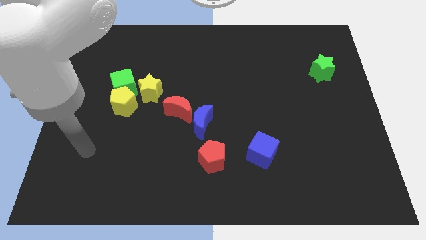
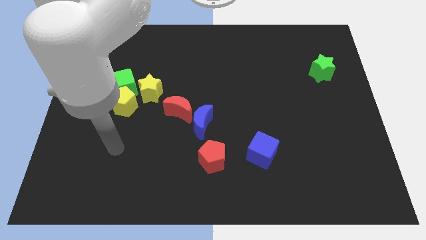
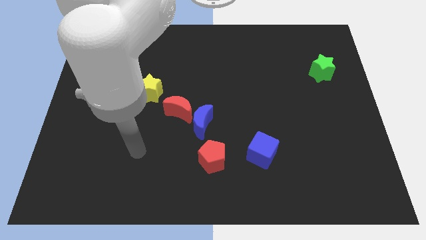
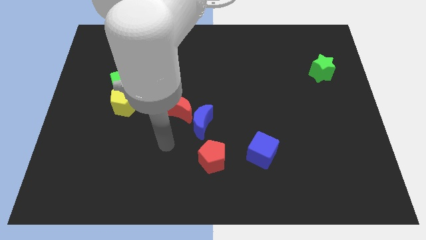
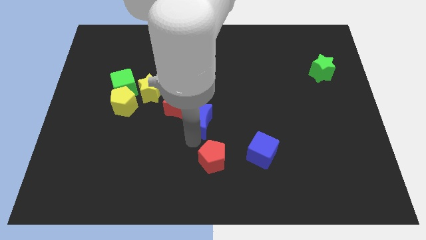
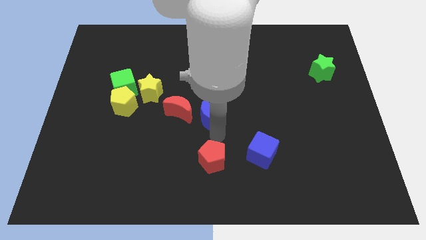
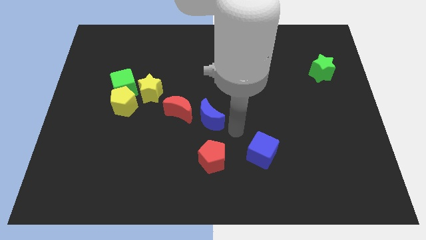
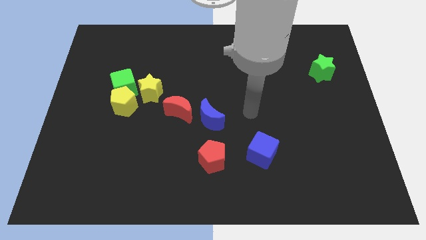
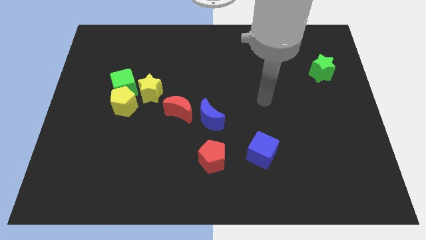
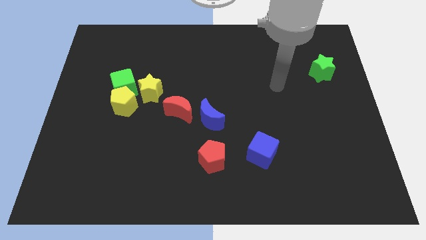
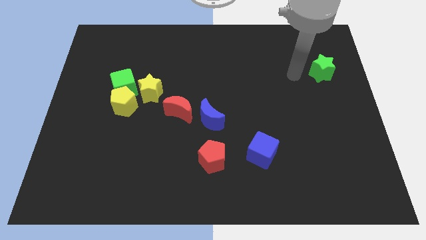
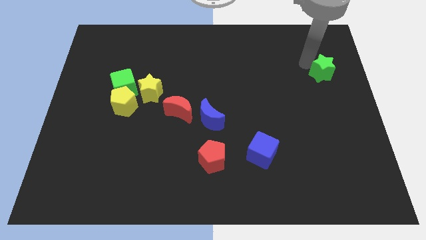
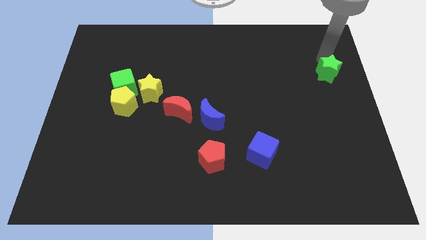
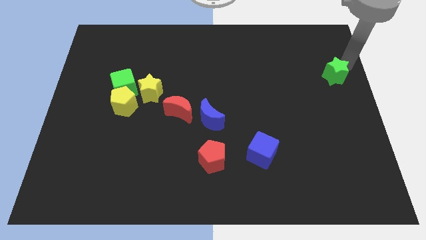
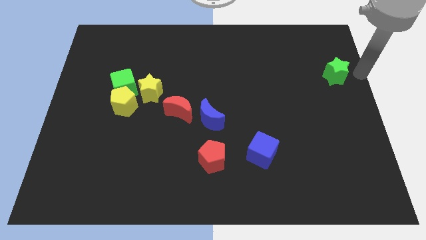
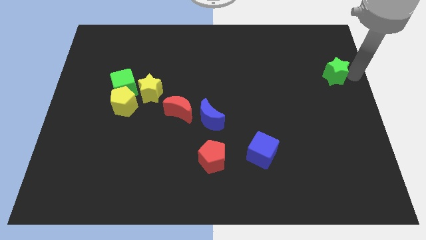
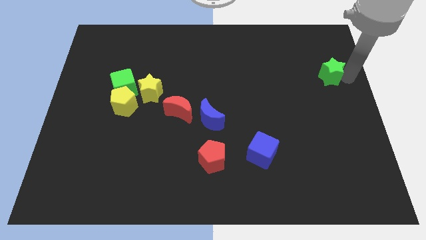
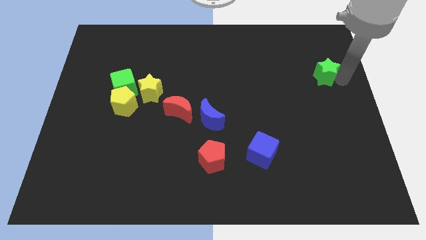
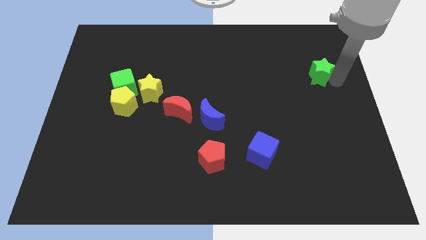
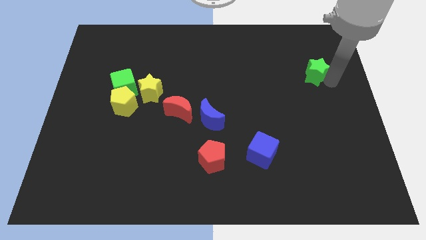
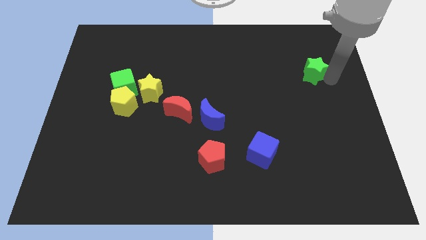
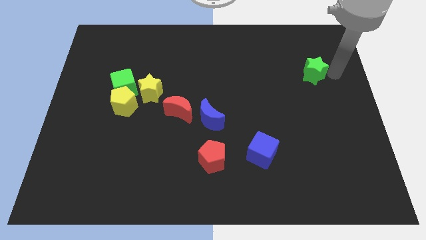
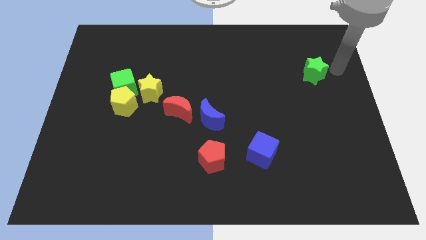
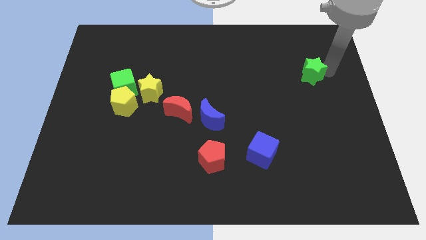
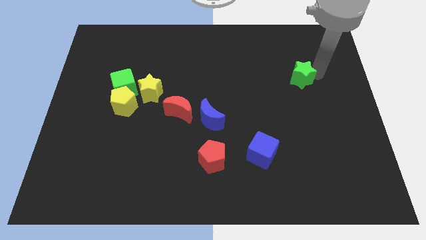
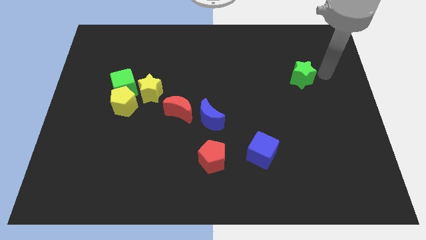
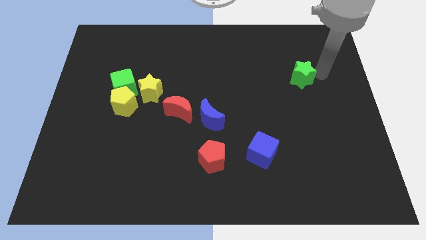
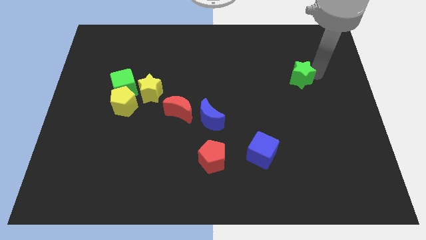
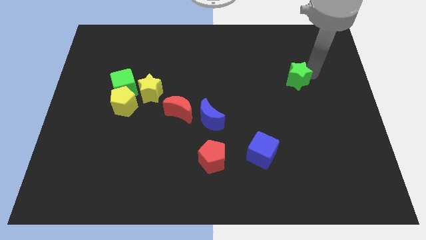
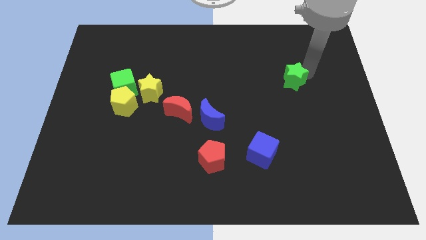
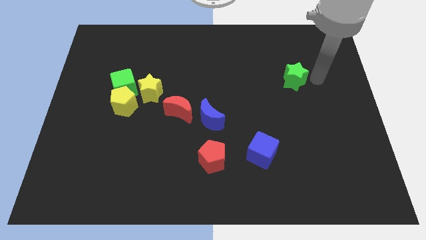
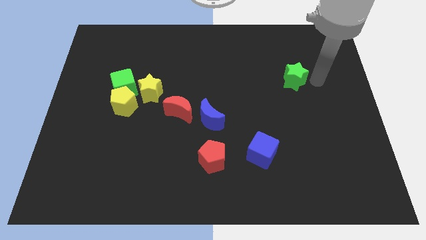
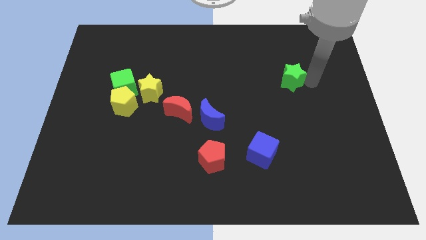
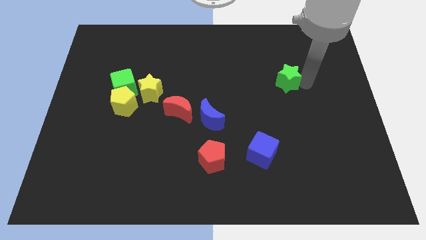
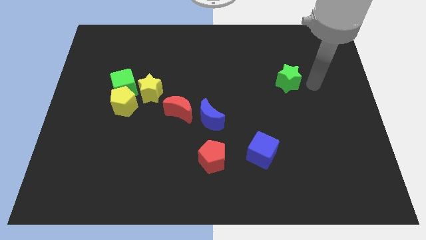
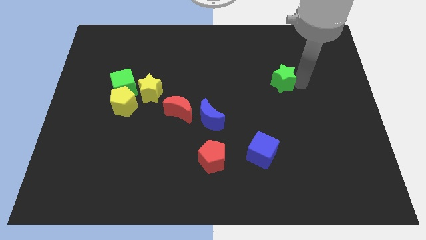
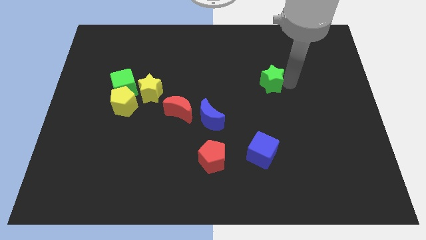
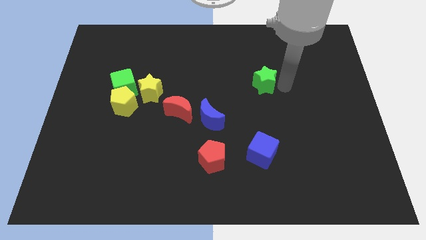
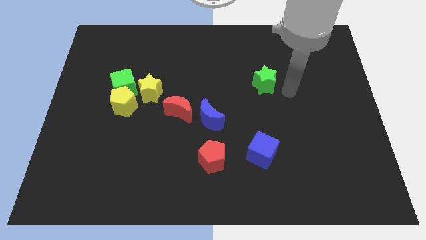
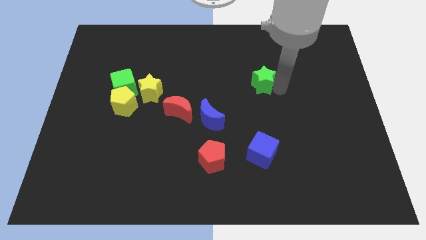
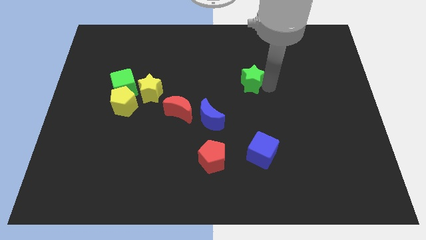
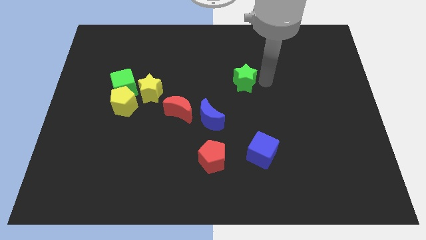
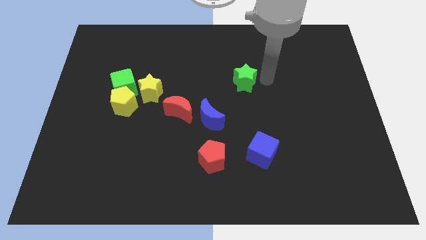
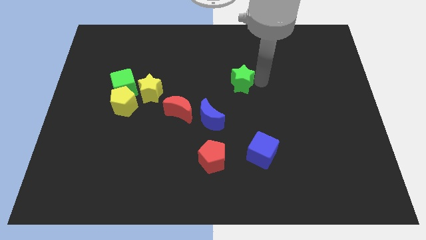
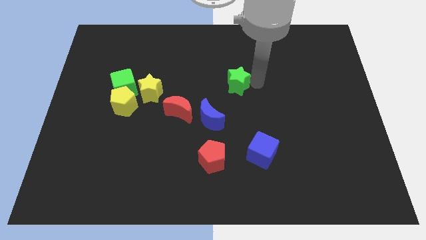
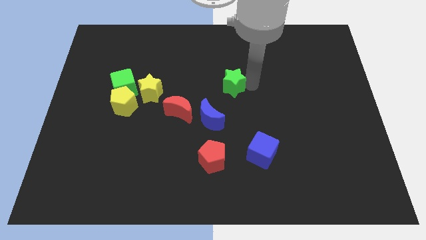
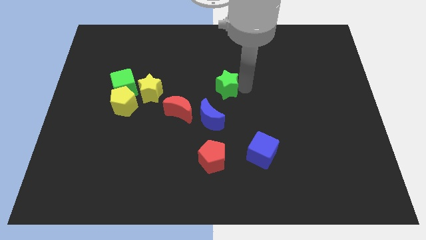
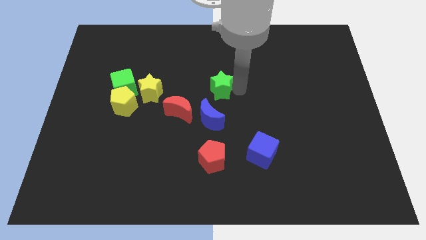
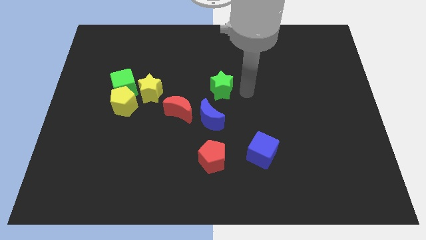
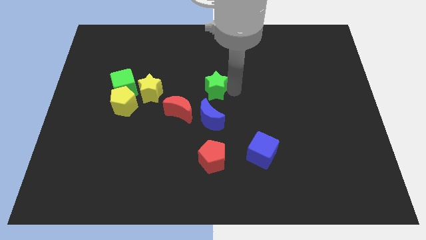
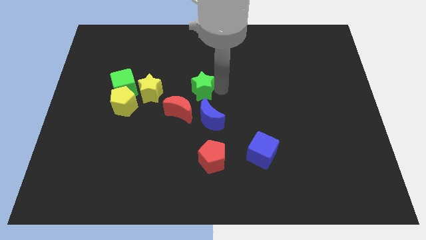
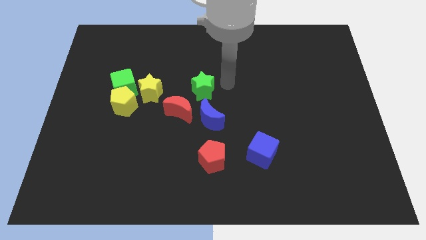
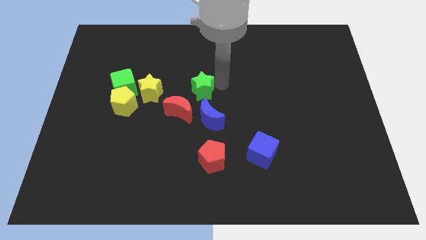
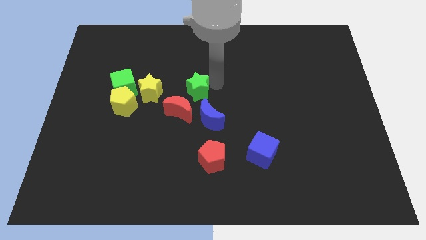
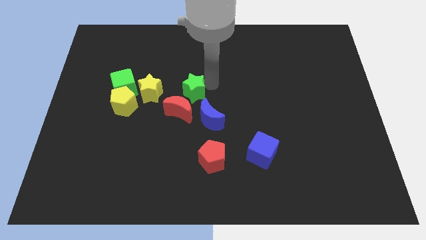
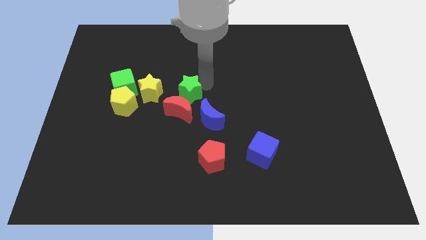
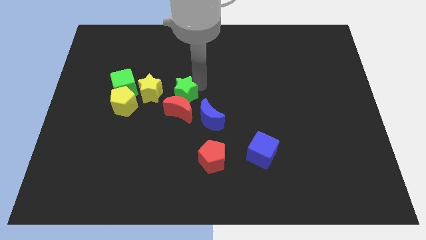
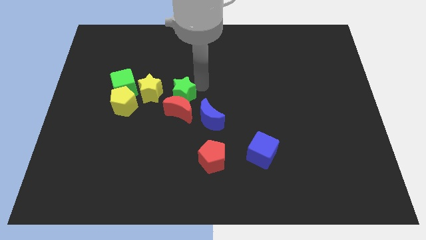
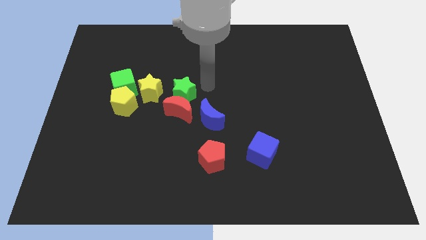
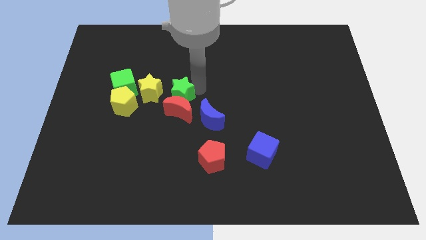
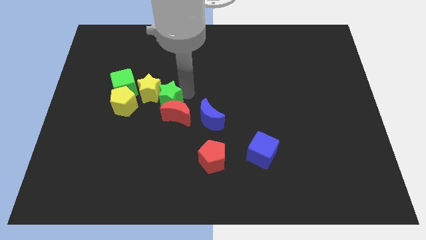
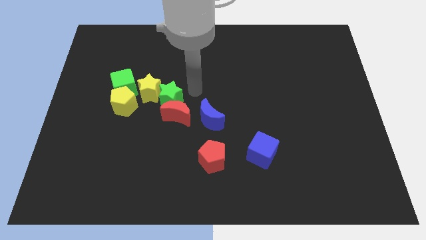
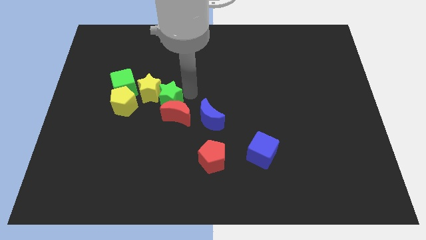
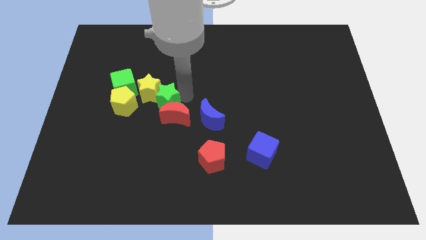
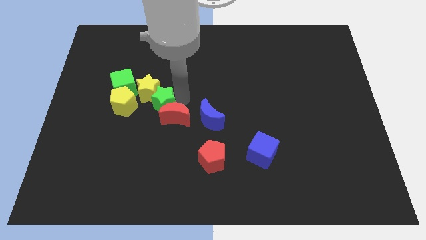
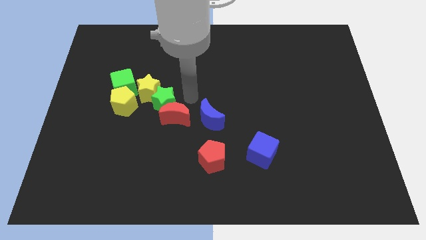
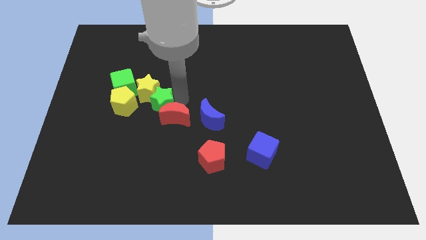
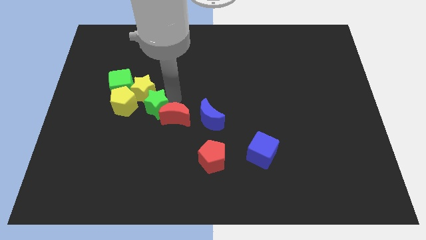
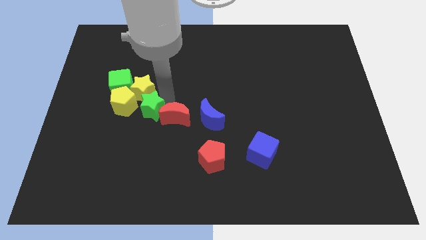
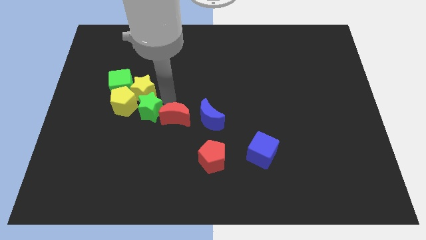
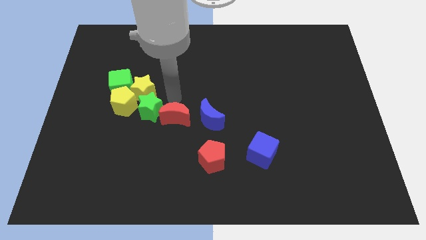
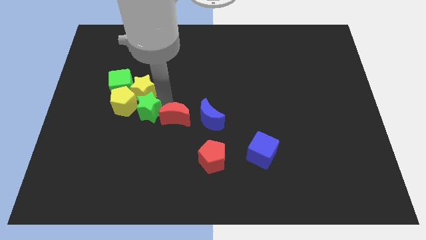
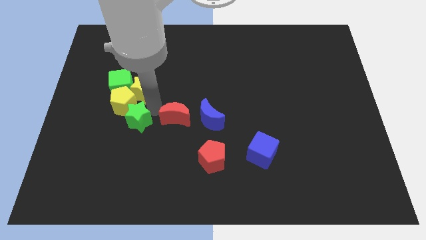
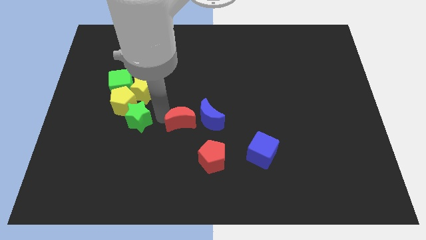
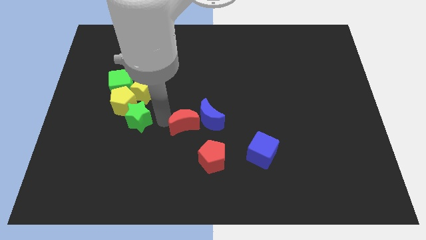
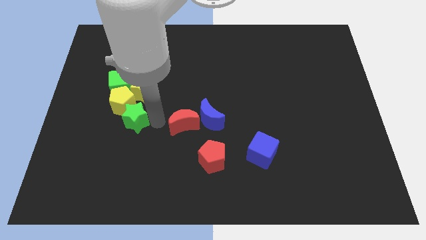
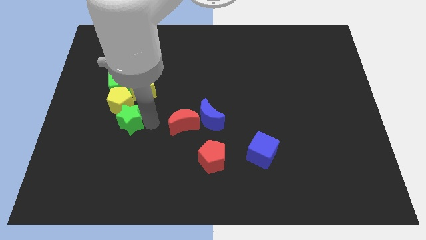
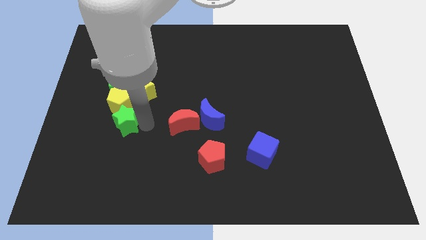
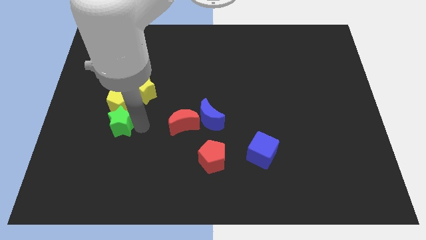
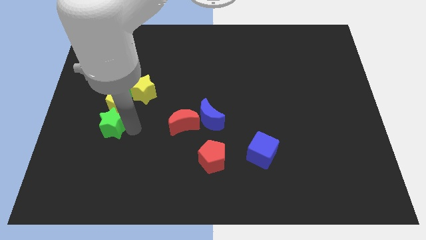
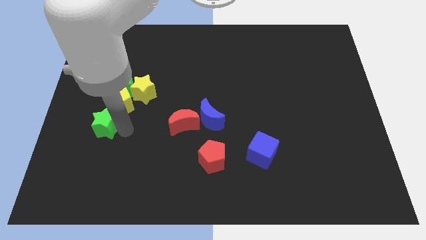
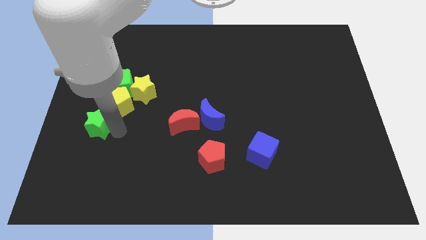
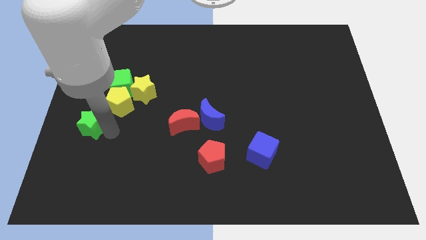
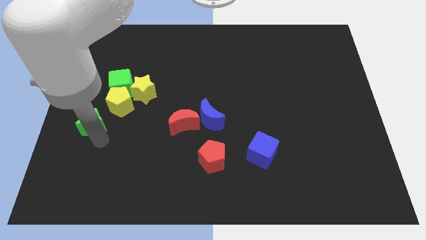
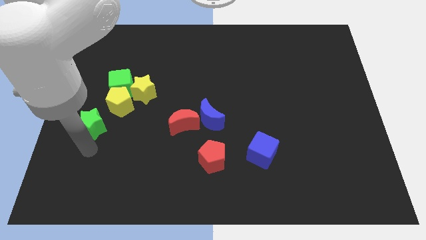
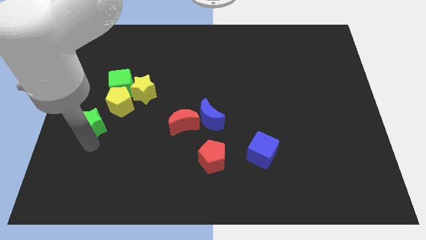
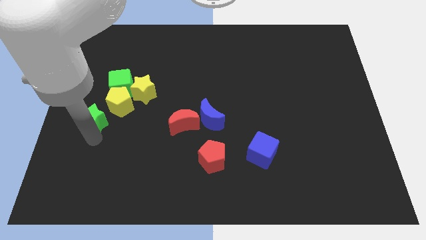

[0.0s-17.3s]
push the green star to the bottom left side of the green cube
